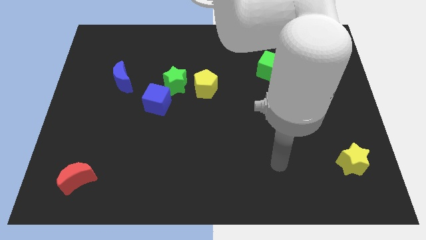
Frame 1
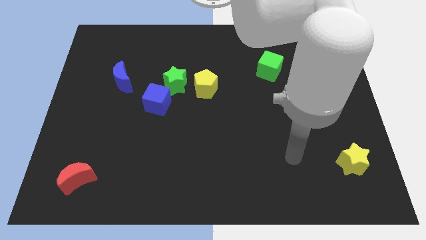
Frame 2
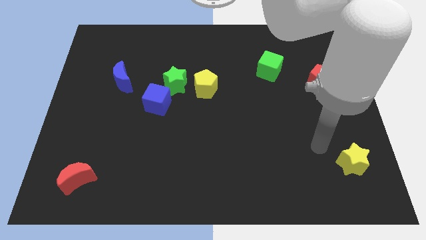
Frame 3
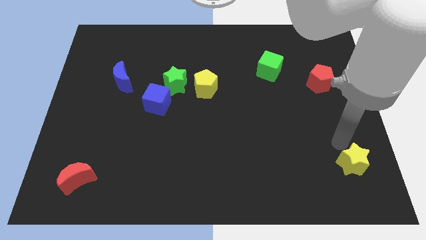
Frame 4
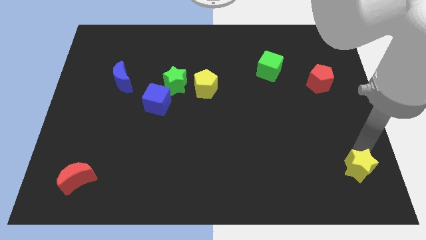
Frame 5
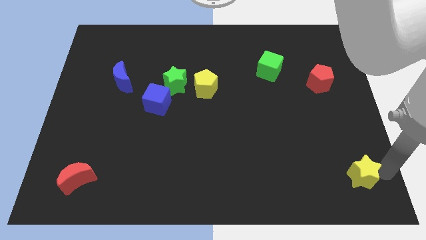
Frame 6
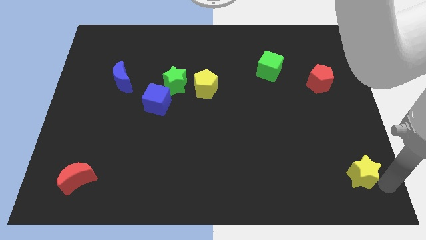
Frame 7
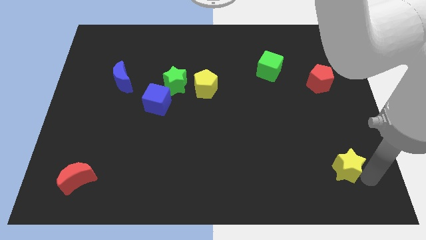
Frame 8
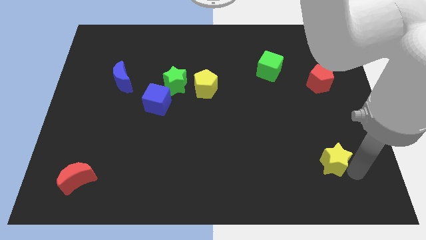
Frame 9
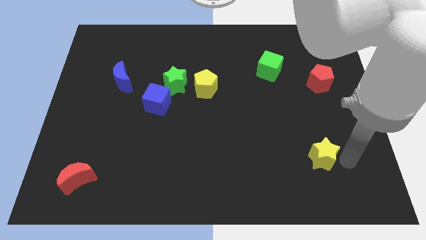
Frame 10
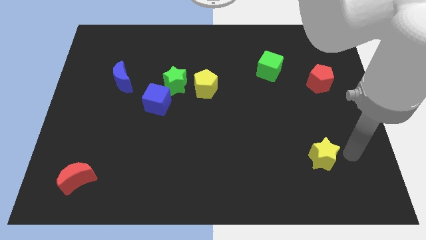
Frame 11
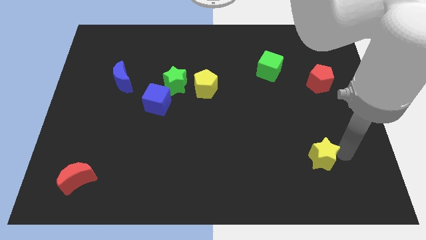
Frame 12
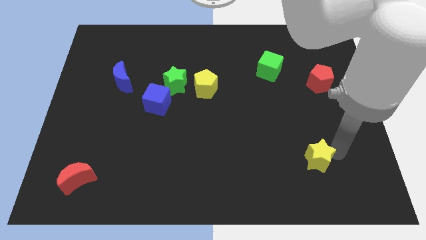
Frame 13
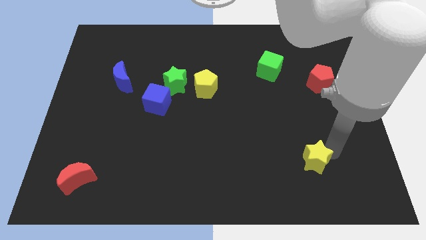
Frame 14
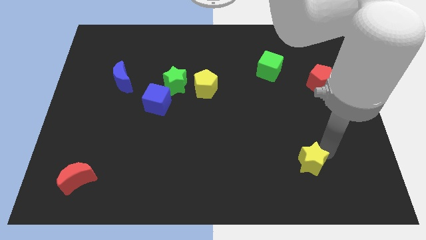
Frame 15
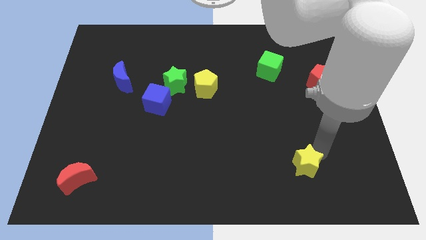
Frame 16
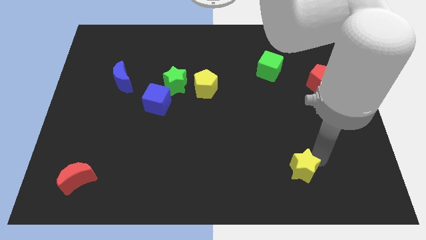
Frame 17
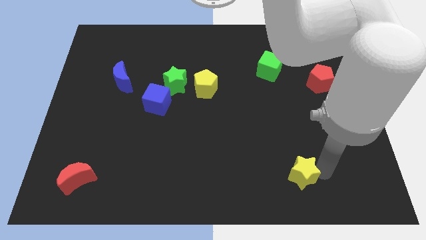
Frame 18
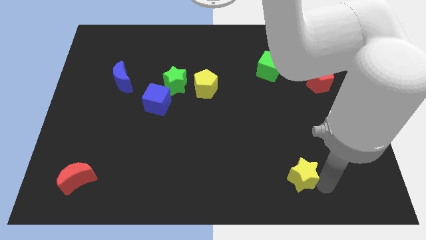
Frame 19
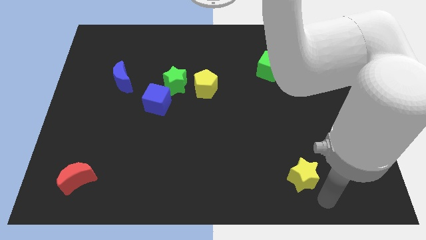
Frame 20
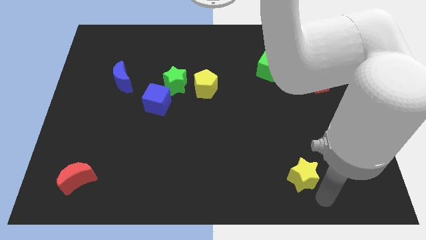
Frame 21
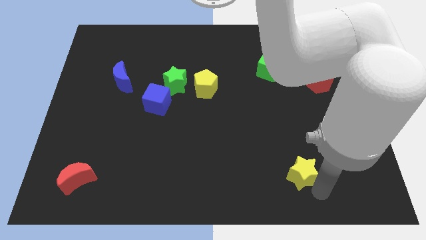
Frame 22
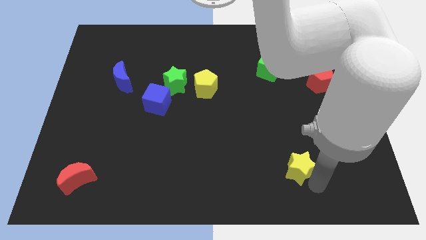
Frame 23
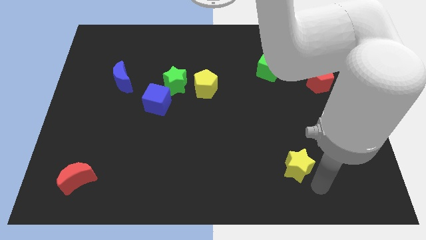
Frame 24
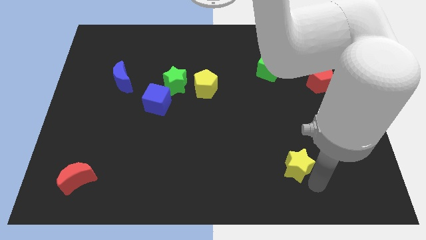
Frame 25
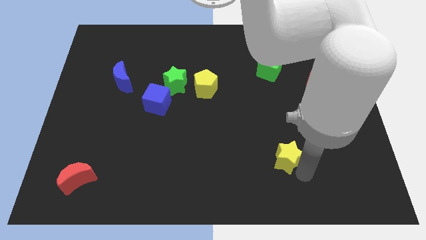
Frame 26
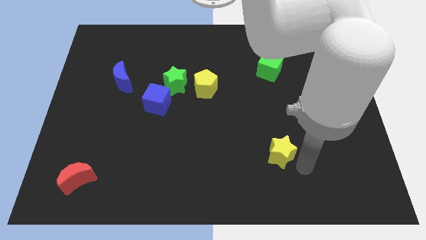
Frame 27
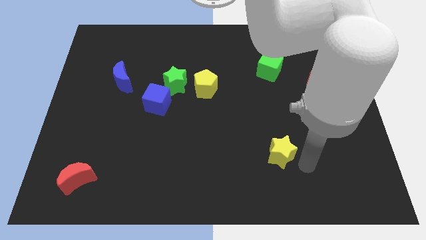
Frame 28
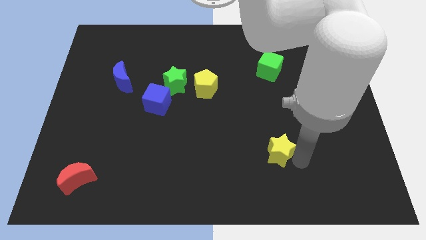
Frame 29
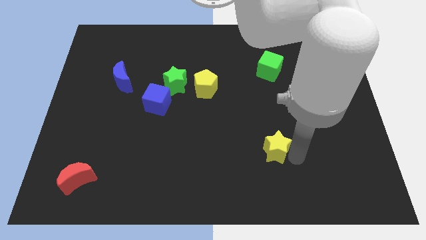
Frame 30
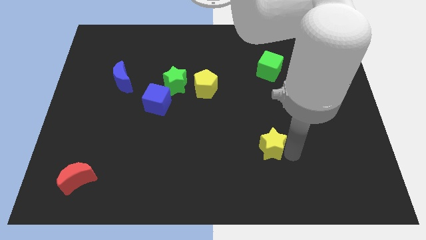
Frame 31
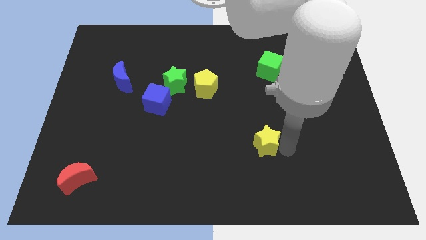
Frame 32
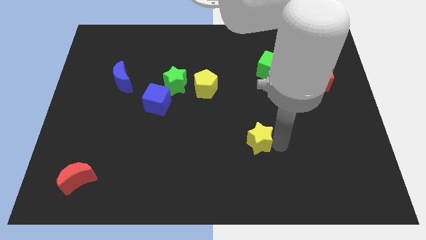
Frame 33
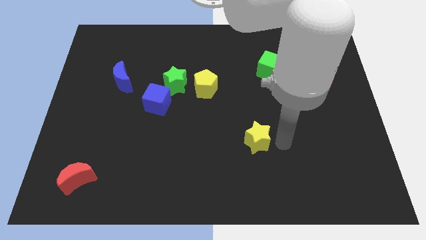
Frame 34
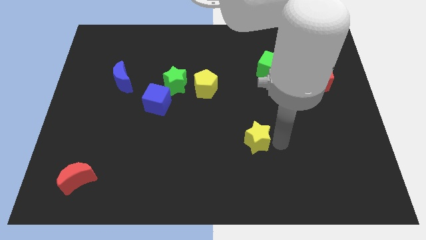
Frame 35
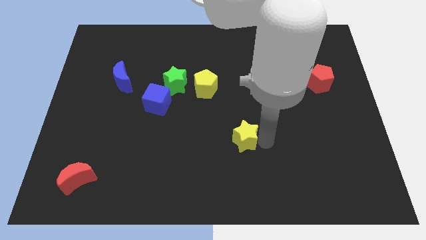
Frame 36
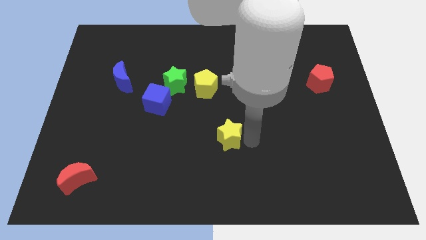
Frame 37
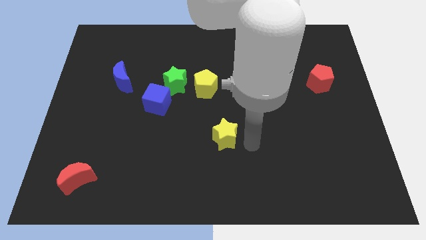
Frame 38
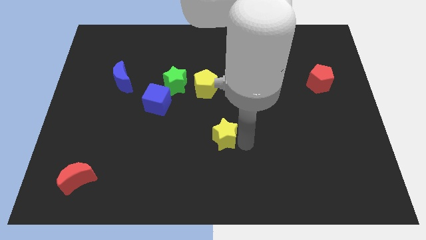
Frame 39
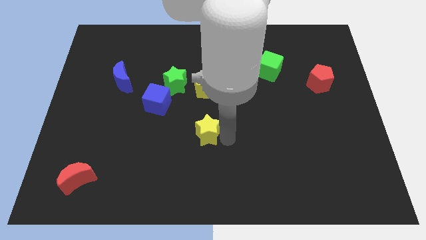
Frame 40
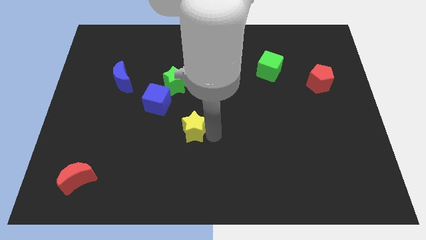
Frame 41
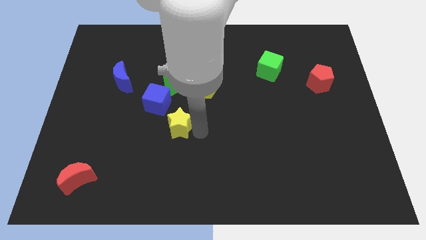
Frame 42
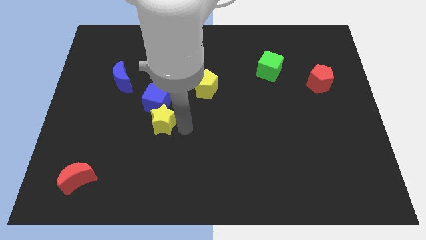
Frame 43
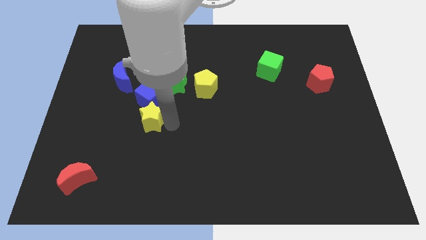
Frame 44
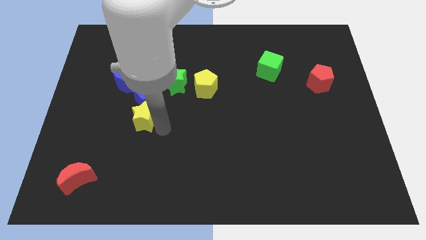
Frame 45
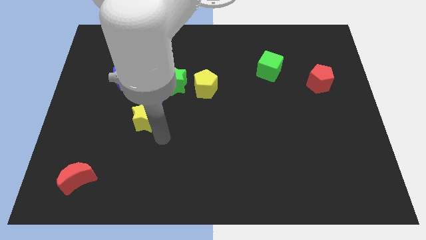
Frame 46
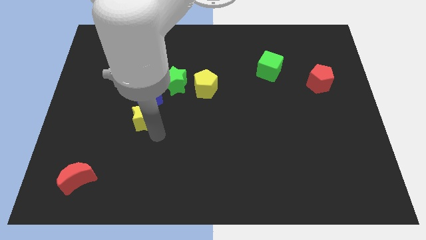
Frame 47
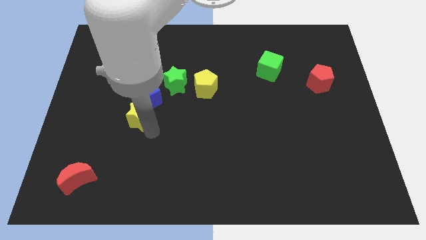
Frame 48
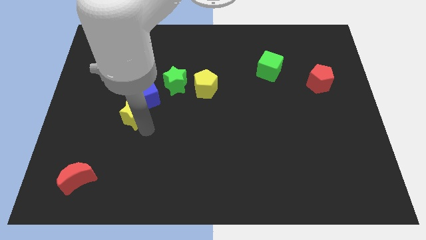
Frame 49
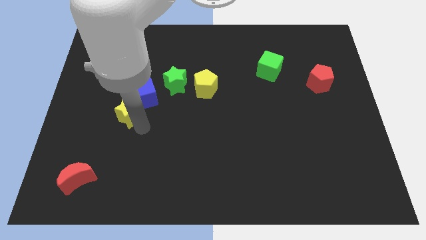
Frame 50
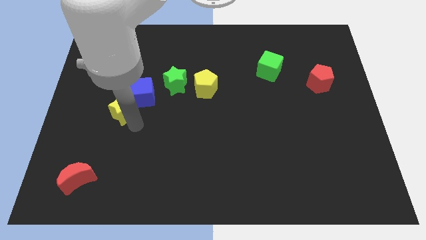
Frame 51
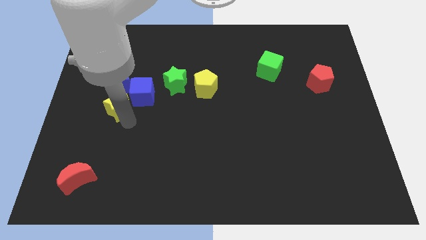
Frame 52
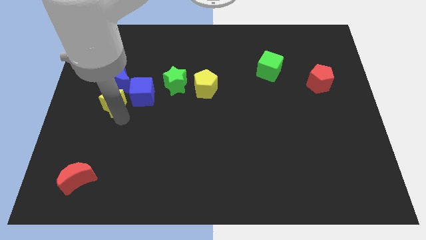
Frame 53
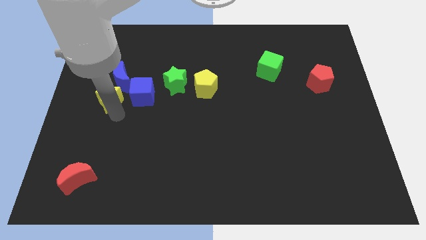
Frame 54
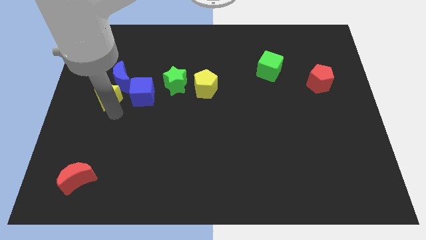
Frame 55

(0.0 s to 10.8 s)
move the yellow star close to the blue moon

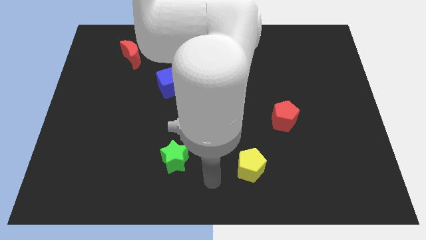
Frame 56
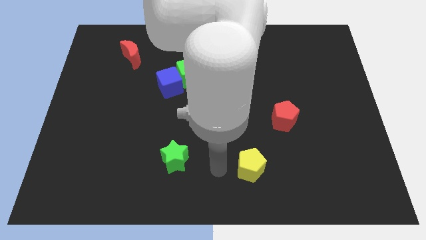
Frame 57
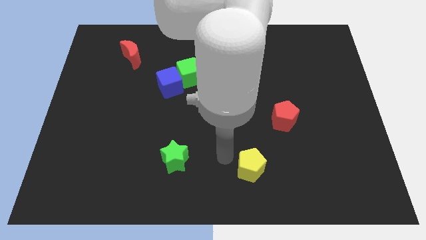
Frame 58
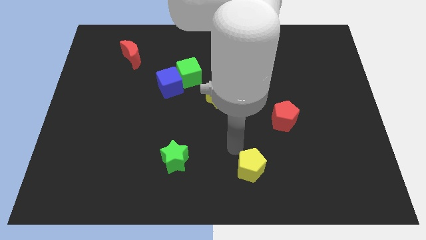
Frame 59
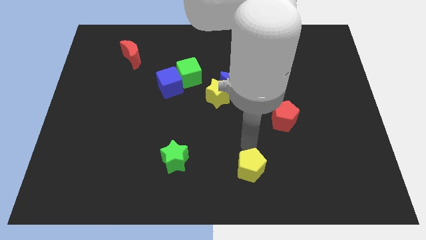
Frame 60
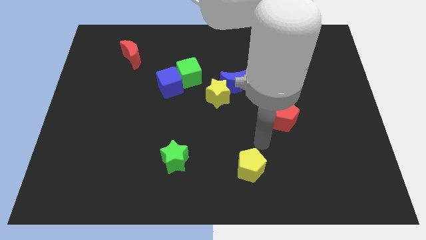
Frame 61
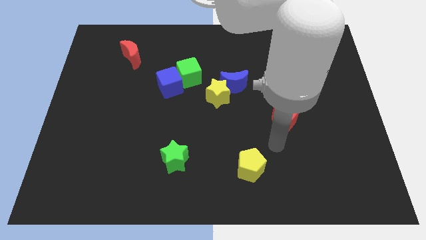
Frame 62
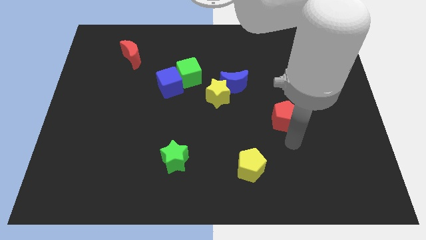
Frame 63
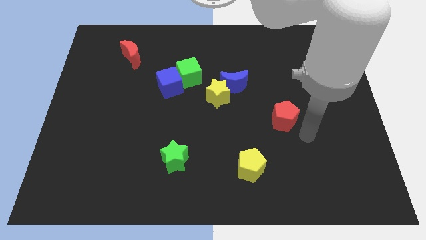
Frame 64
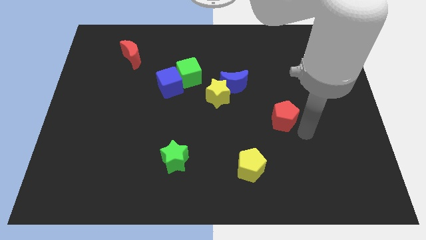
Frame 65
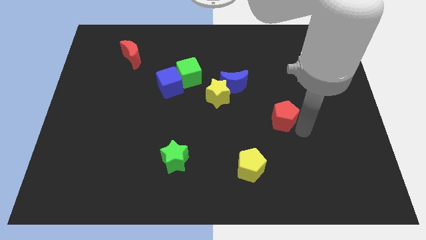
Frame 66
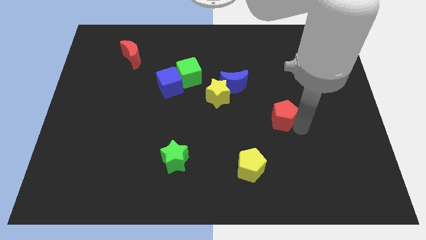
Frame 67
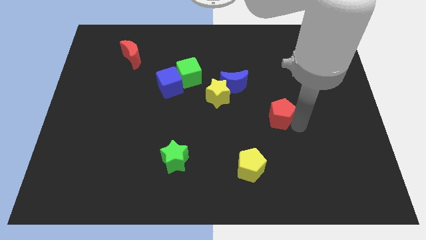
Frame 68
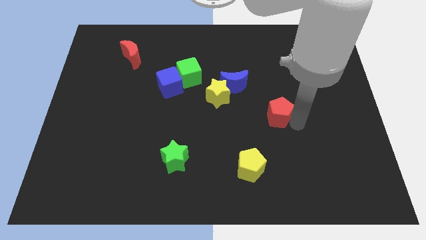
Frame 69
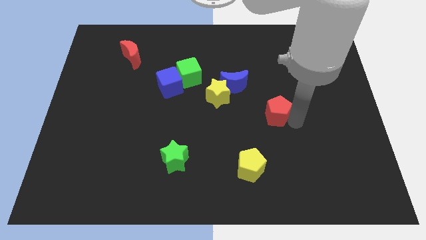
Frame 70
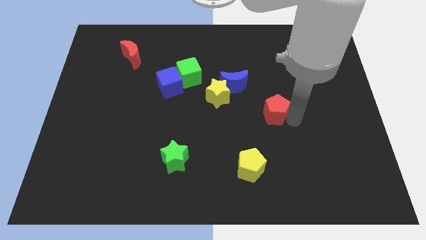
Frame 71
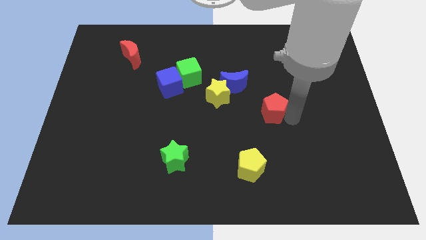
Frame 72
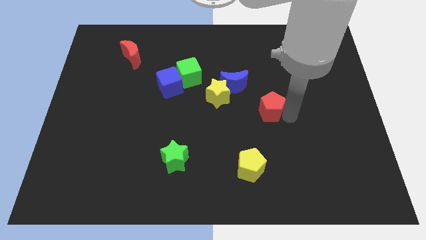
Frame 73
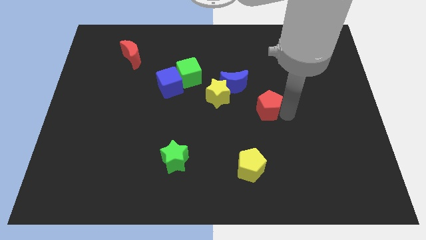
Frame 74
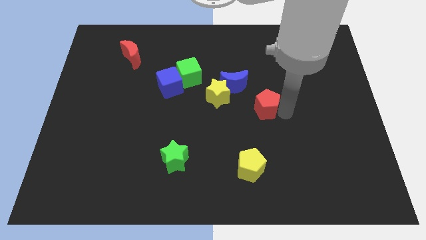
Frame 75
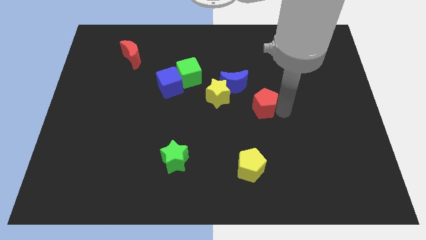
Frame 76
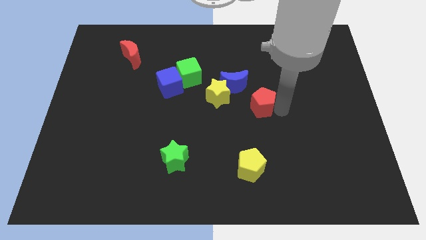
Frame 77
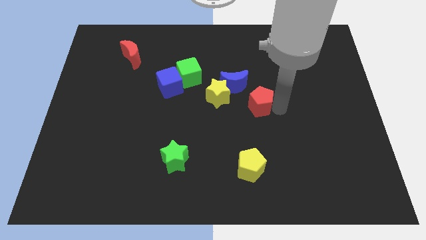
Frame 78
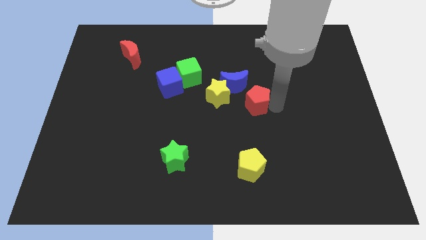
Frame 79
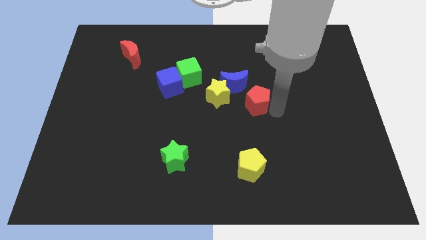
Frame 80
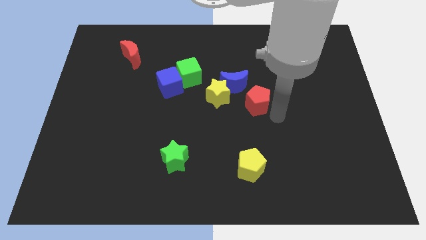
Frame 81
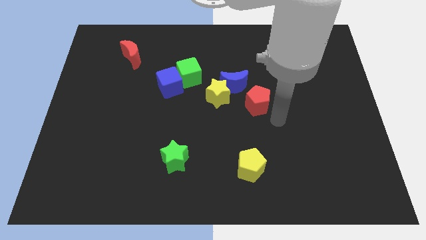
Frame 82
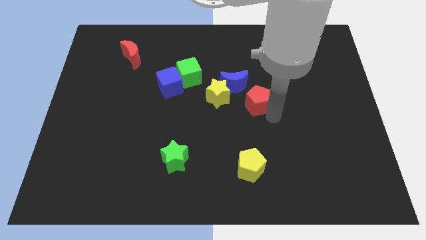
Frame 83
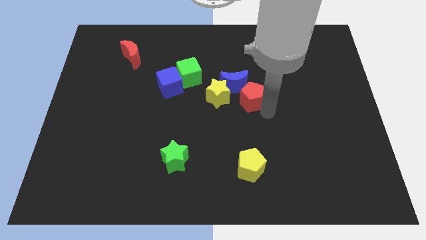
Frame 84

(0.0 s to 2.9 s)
push the red pentagon to the blue moon
